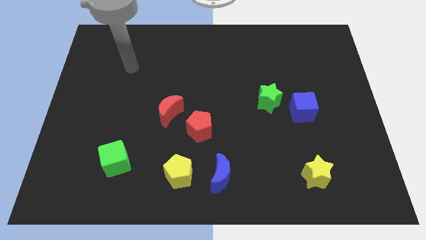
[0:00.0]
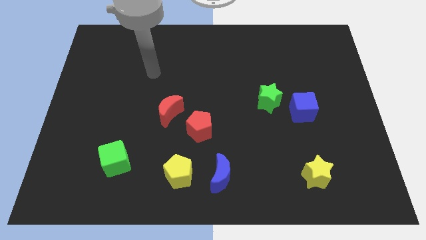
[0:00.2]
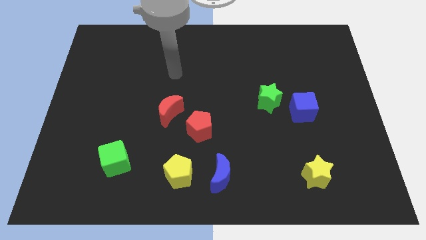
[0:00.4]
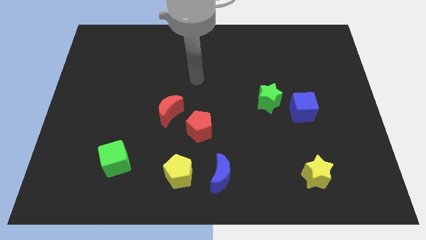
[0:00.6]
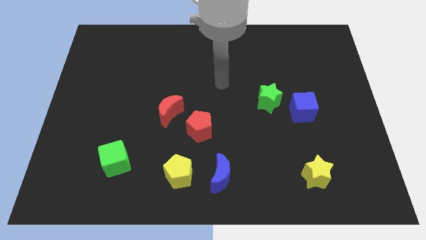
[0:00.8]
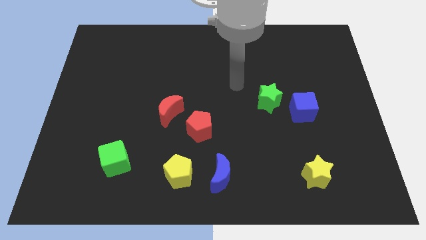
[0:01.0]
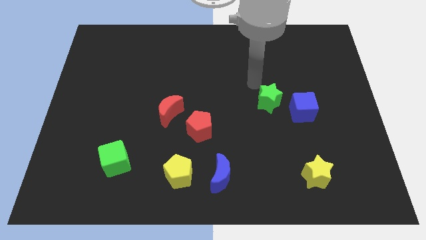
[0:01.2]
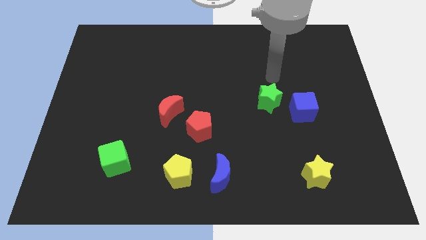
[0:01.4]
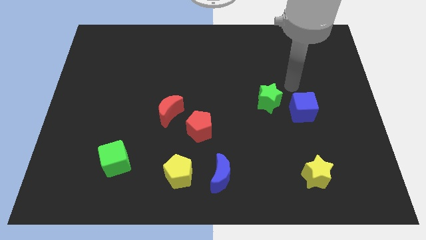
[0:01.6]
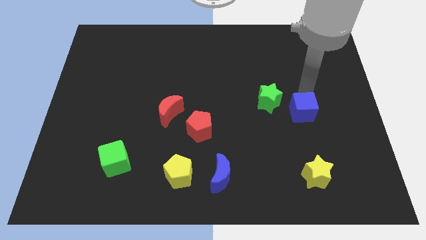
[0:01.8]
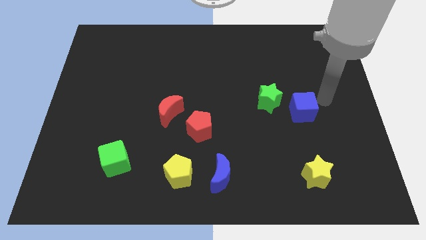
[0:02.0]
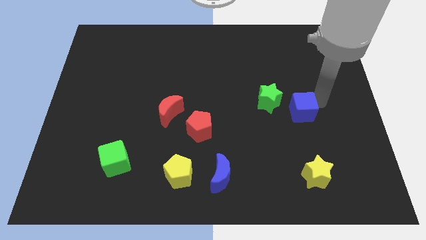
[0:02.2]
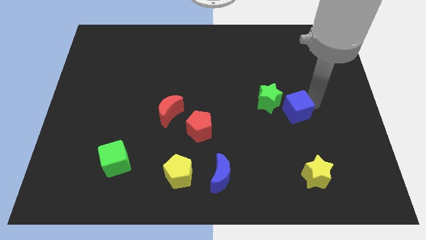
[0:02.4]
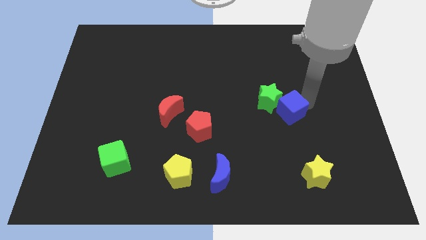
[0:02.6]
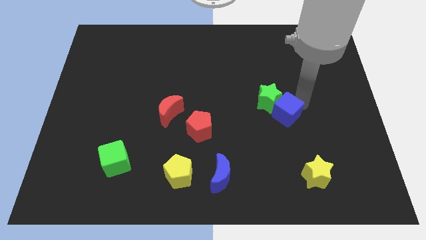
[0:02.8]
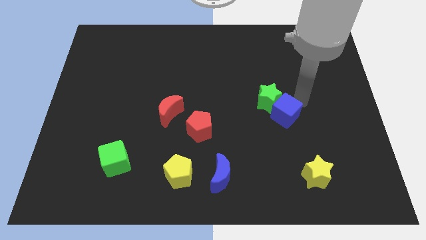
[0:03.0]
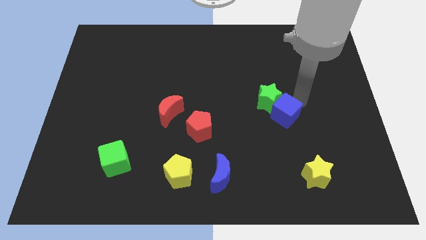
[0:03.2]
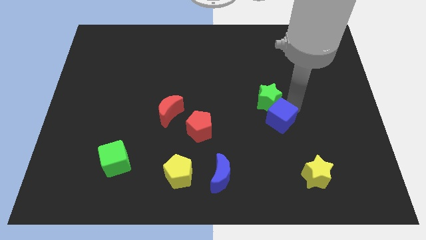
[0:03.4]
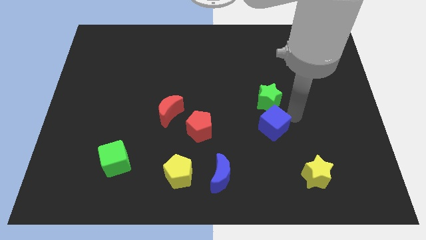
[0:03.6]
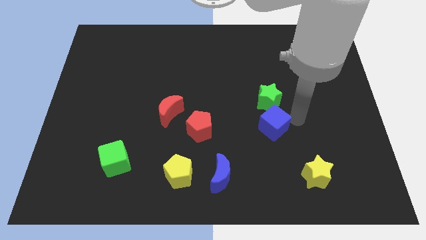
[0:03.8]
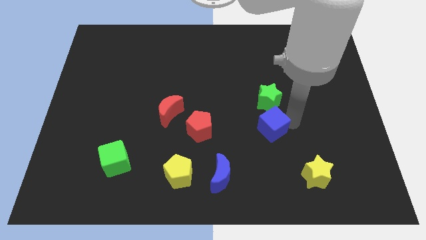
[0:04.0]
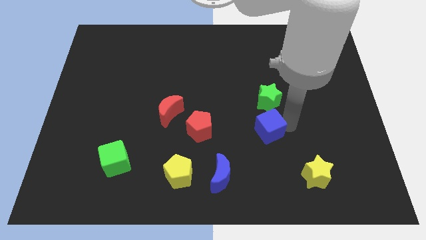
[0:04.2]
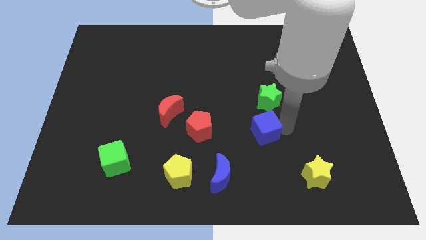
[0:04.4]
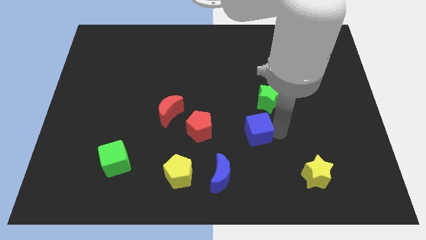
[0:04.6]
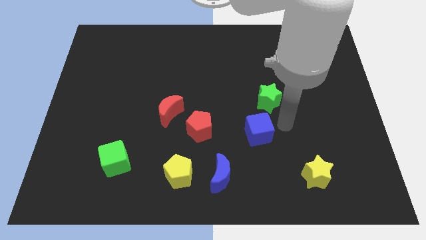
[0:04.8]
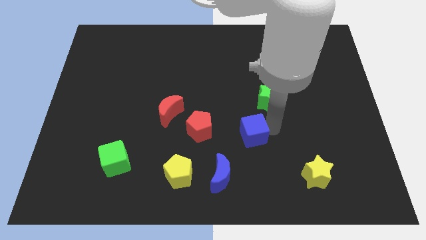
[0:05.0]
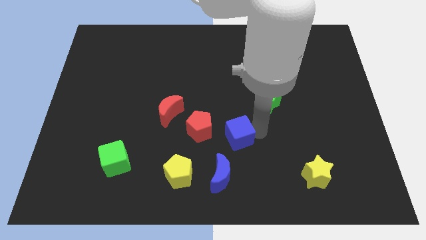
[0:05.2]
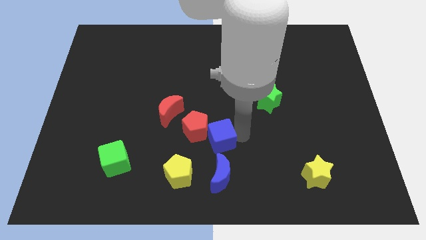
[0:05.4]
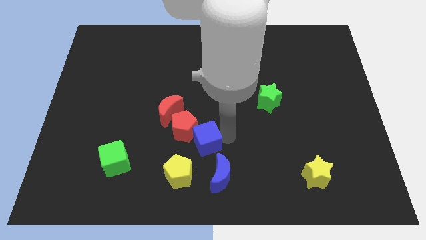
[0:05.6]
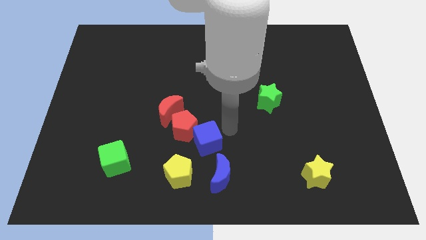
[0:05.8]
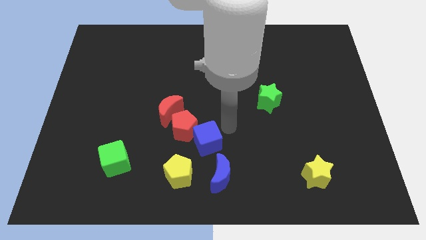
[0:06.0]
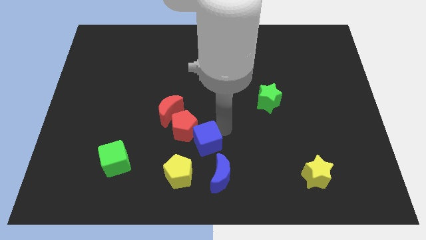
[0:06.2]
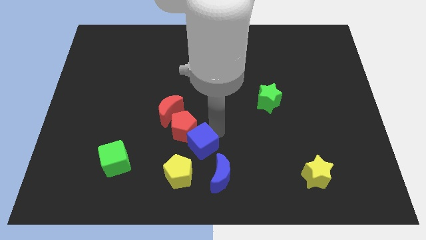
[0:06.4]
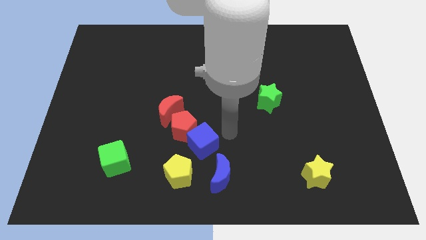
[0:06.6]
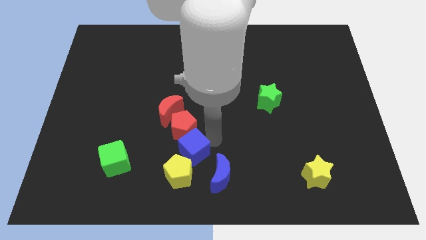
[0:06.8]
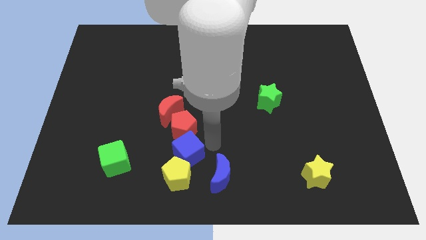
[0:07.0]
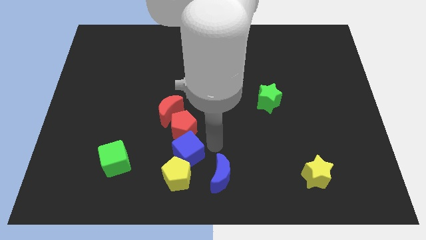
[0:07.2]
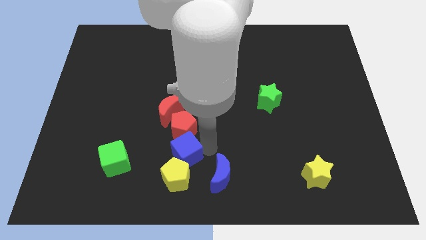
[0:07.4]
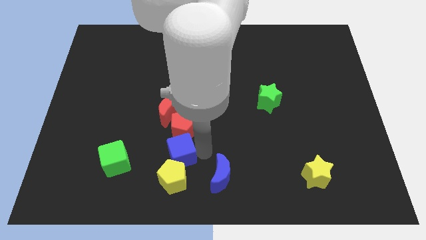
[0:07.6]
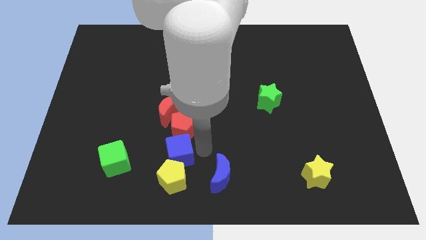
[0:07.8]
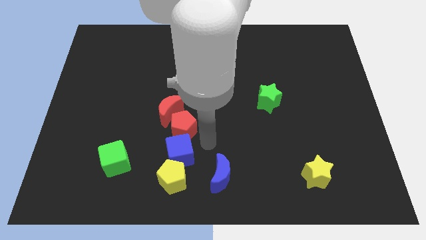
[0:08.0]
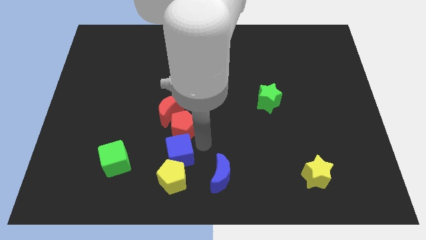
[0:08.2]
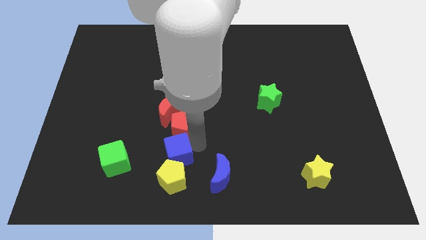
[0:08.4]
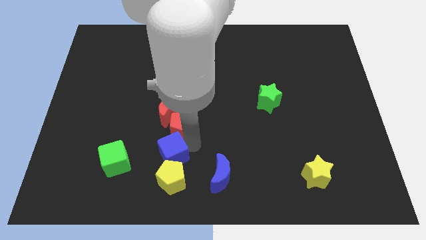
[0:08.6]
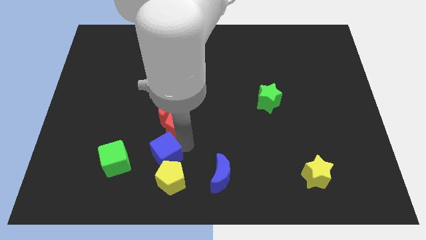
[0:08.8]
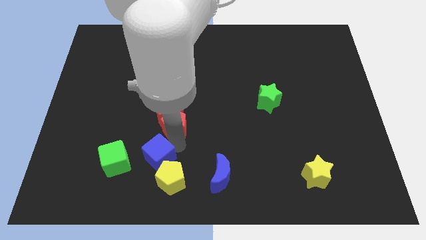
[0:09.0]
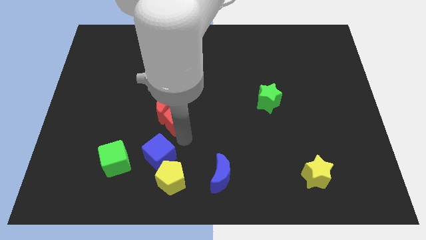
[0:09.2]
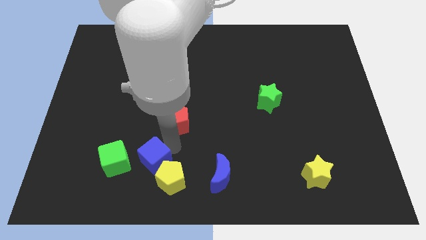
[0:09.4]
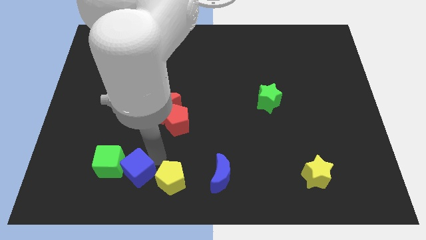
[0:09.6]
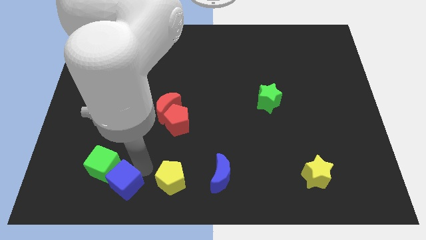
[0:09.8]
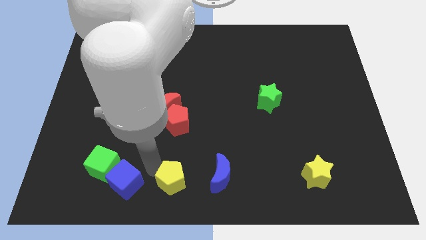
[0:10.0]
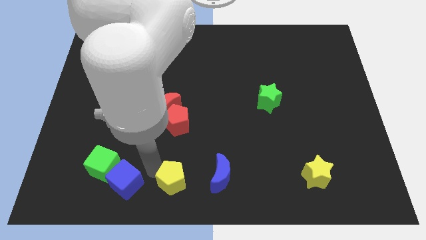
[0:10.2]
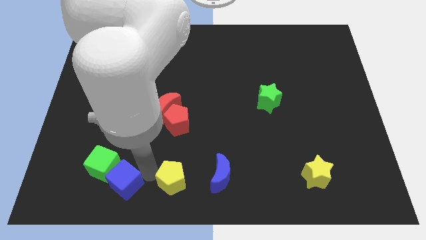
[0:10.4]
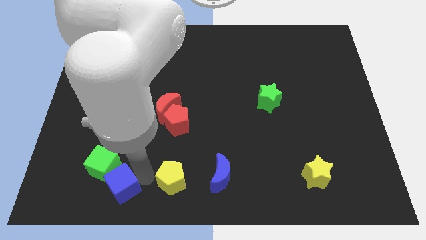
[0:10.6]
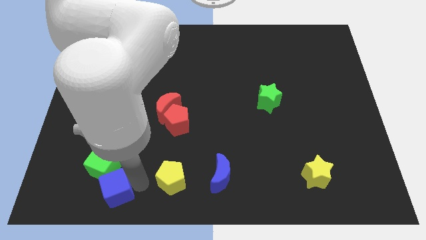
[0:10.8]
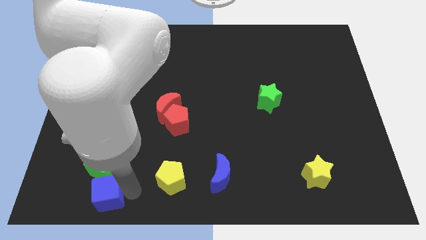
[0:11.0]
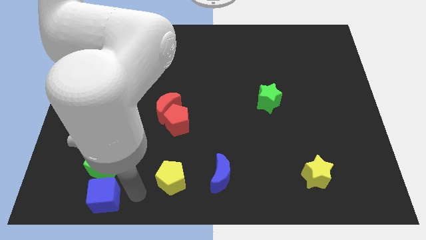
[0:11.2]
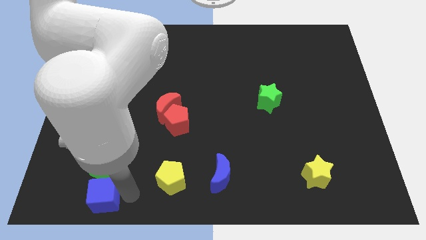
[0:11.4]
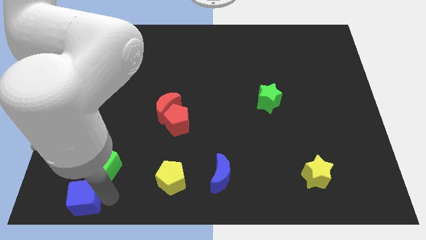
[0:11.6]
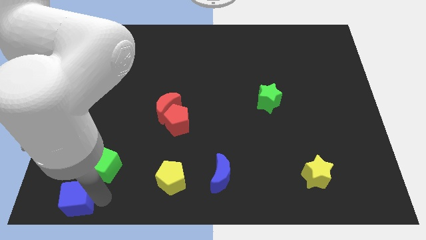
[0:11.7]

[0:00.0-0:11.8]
push the blue cube to the bottom left of the board
